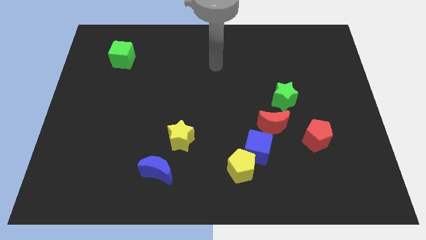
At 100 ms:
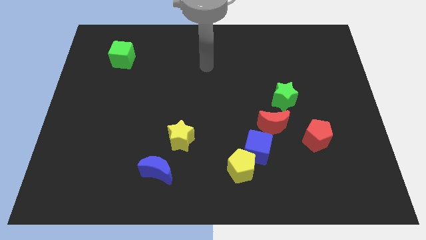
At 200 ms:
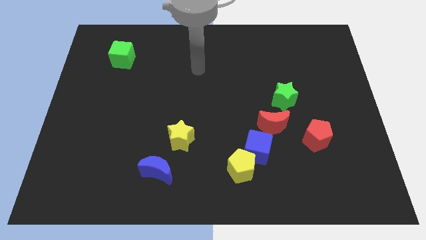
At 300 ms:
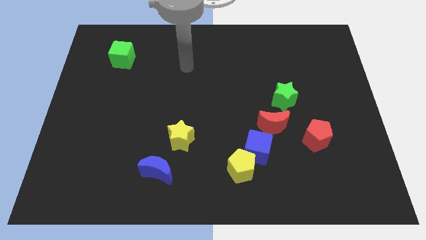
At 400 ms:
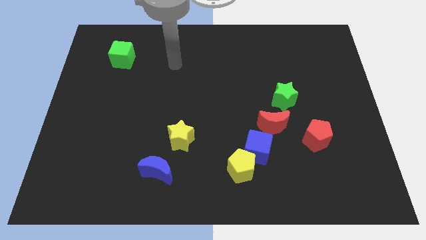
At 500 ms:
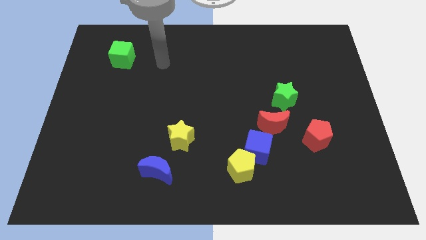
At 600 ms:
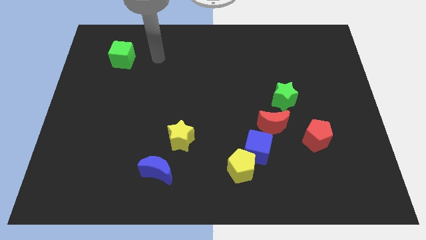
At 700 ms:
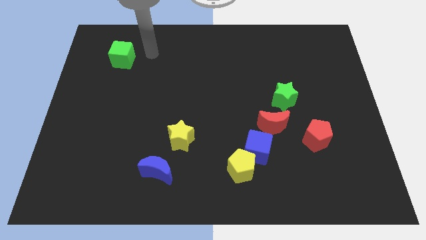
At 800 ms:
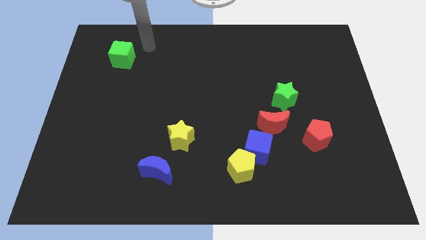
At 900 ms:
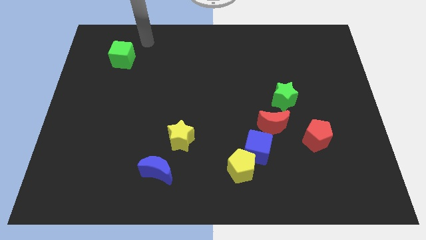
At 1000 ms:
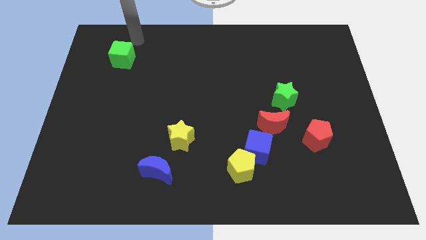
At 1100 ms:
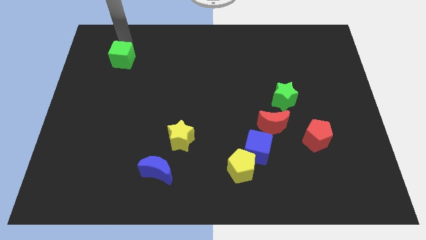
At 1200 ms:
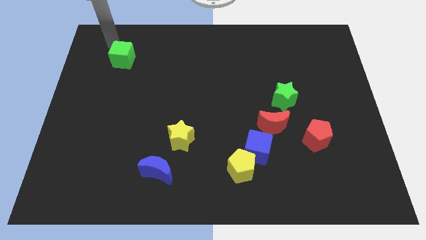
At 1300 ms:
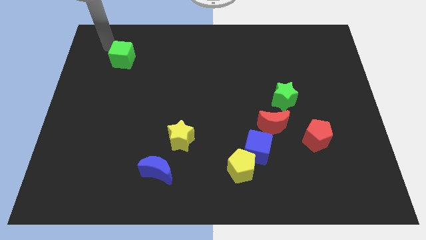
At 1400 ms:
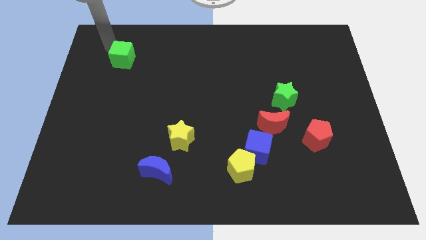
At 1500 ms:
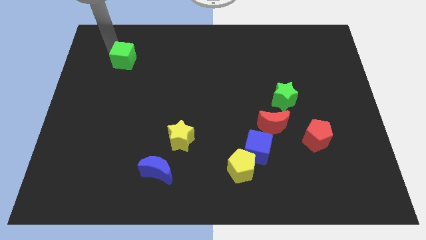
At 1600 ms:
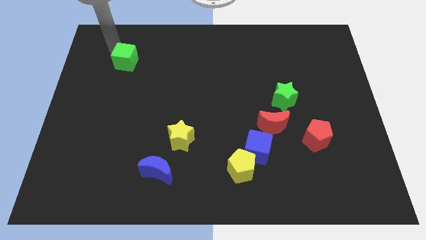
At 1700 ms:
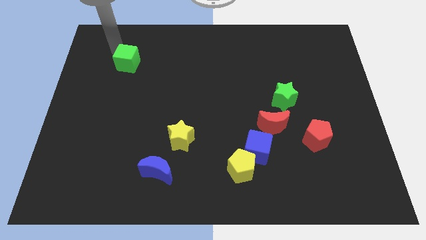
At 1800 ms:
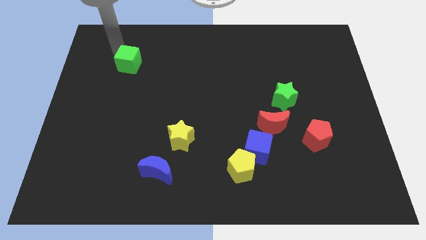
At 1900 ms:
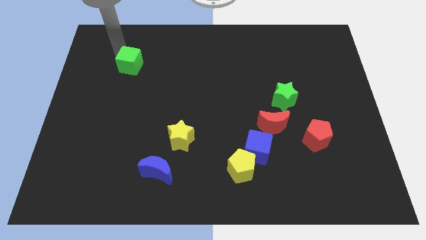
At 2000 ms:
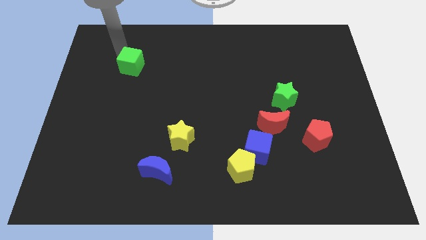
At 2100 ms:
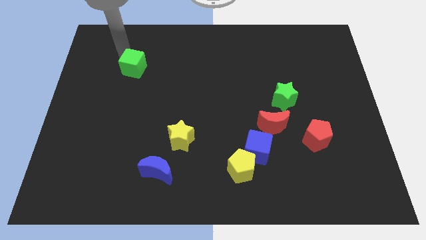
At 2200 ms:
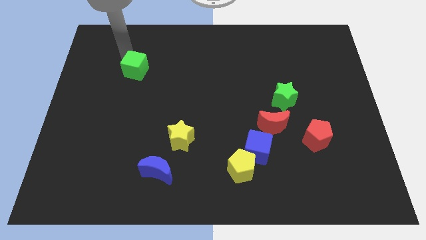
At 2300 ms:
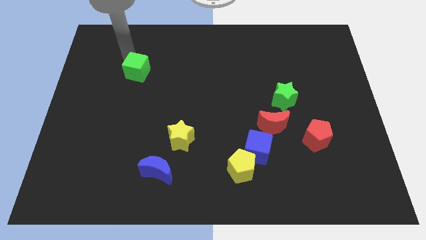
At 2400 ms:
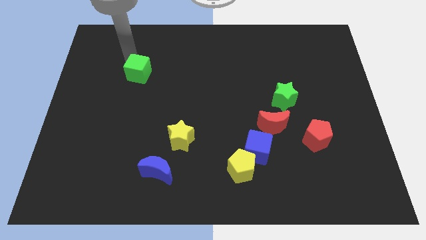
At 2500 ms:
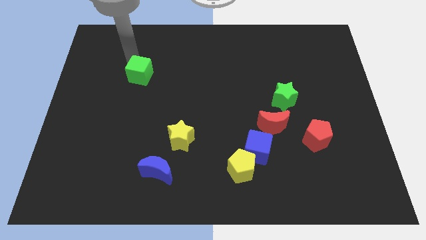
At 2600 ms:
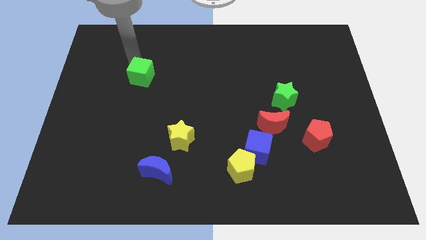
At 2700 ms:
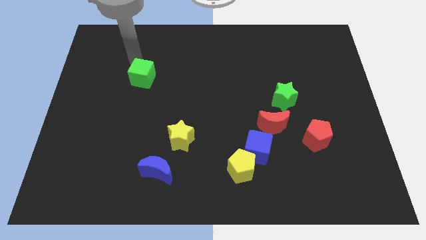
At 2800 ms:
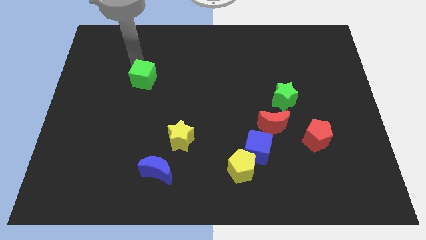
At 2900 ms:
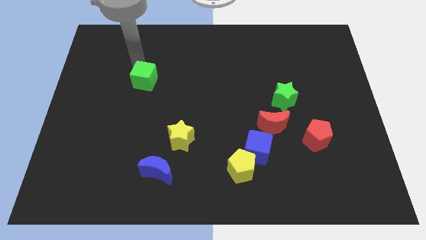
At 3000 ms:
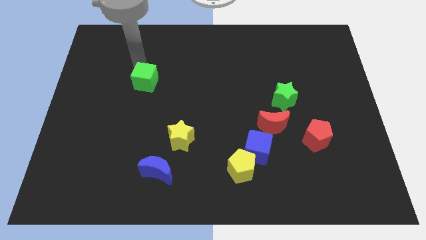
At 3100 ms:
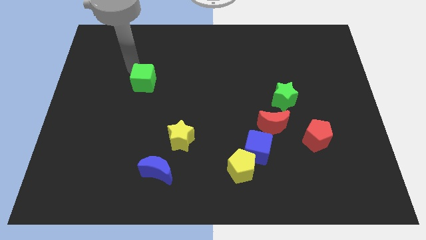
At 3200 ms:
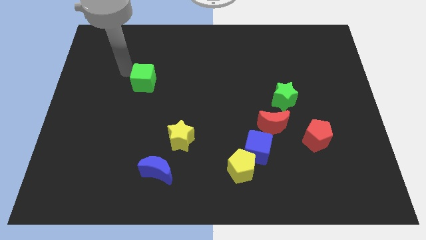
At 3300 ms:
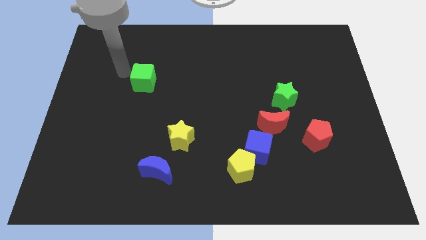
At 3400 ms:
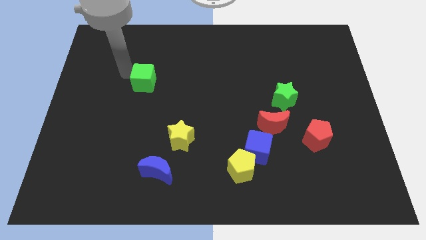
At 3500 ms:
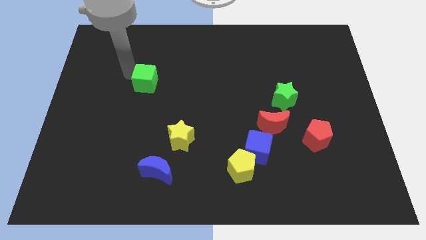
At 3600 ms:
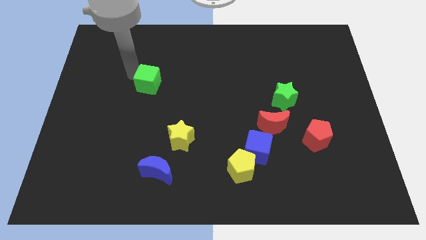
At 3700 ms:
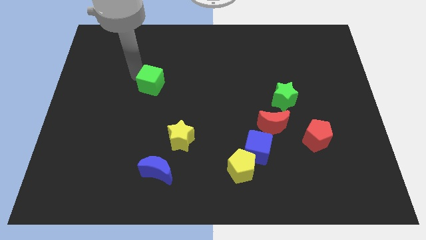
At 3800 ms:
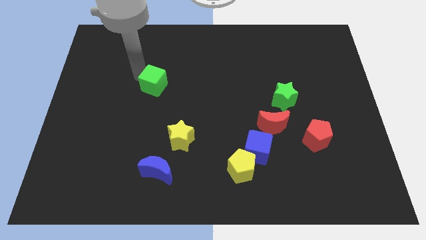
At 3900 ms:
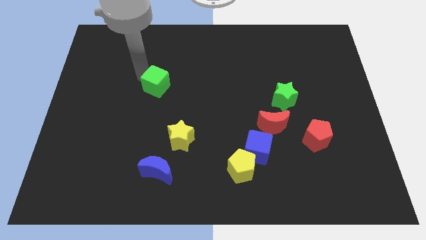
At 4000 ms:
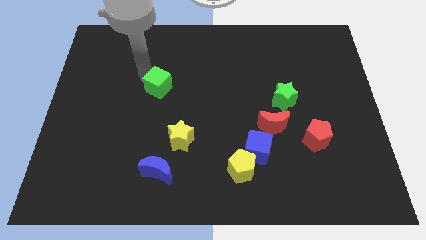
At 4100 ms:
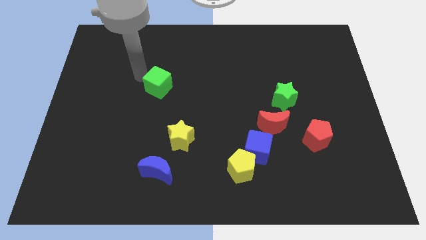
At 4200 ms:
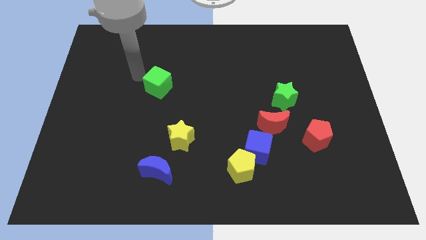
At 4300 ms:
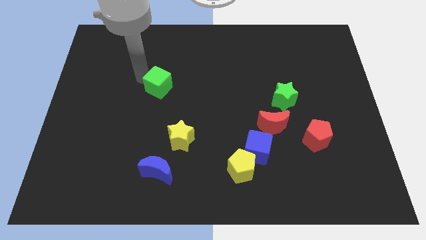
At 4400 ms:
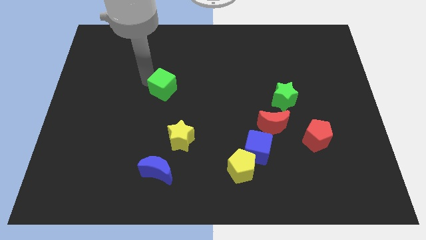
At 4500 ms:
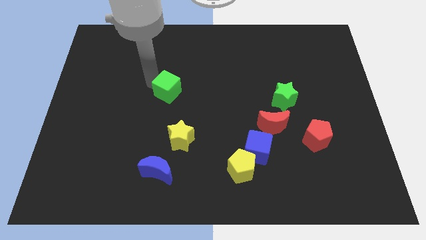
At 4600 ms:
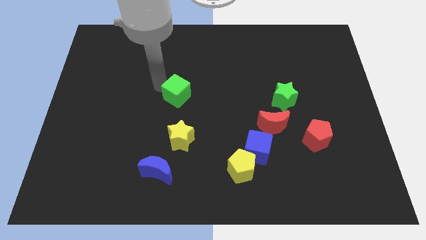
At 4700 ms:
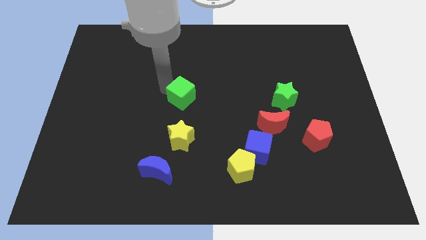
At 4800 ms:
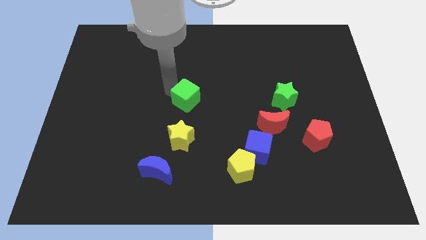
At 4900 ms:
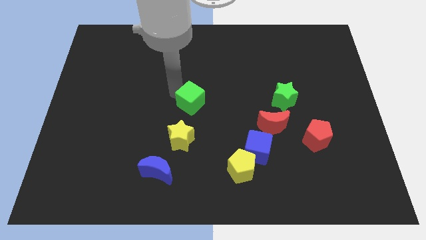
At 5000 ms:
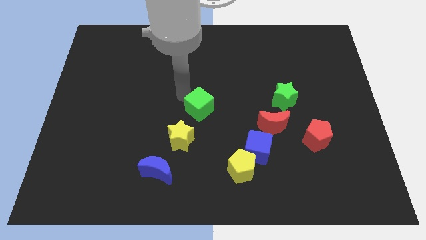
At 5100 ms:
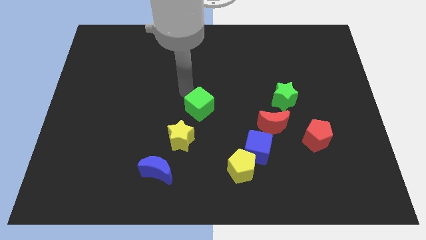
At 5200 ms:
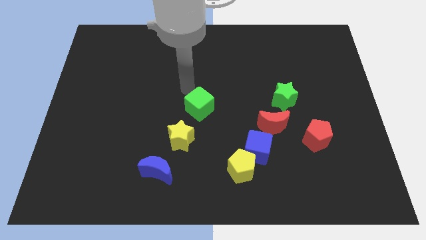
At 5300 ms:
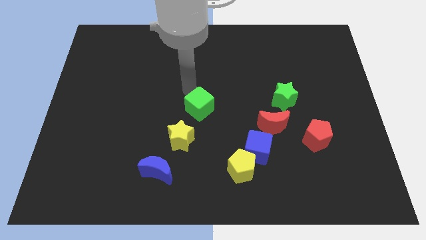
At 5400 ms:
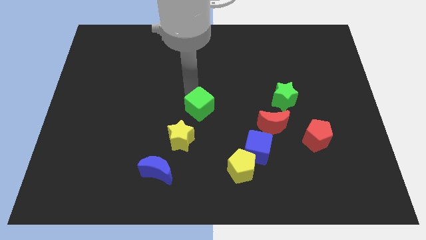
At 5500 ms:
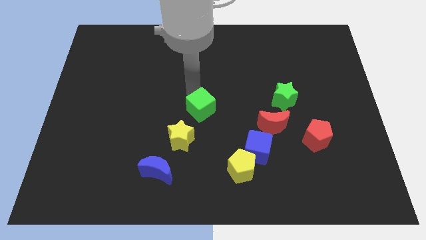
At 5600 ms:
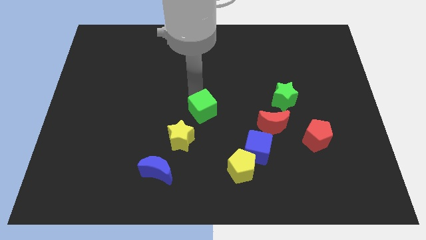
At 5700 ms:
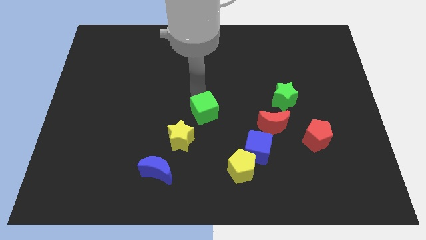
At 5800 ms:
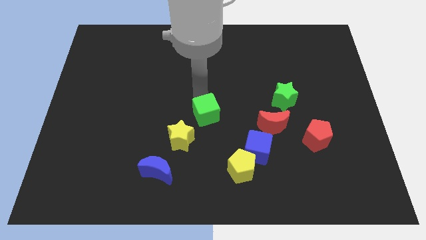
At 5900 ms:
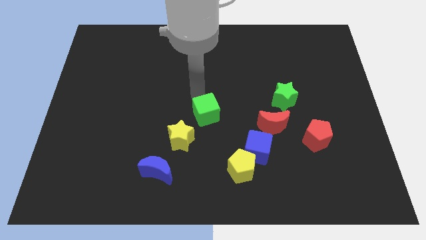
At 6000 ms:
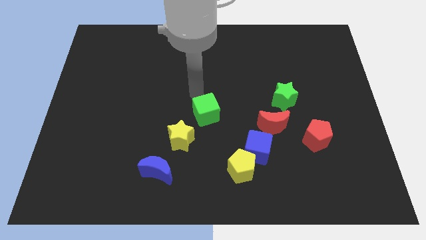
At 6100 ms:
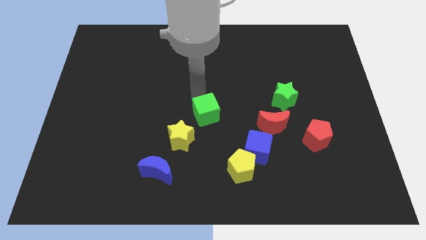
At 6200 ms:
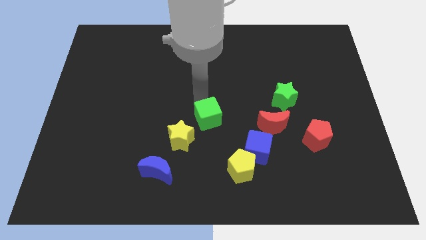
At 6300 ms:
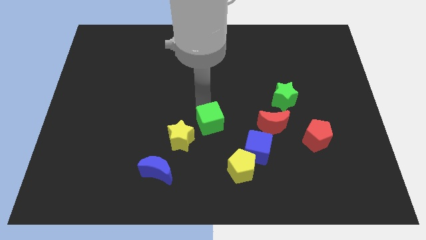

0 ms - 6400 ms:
push the green cube right of the yellow star

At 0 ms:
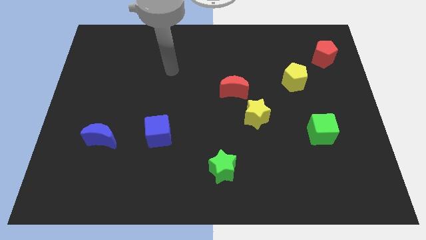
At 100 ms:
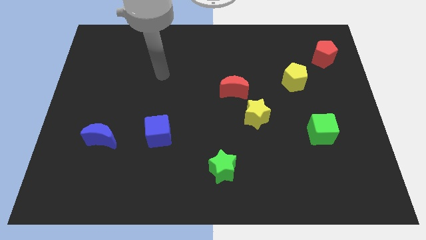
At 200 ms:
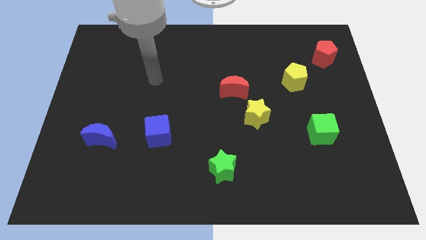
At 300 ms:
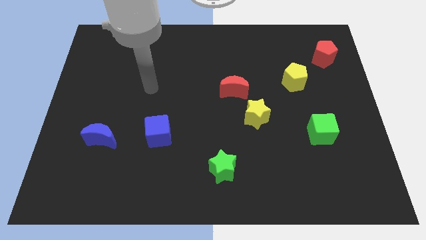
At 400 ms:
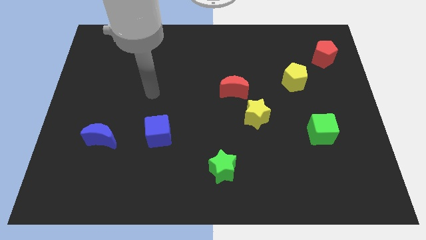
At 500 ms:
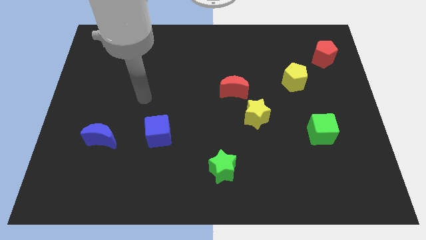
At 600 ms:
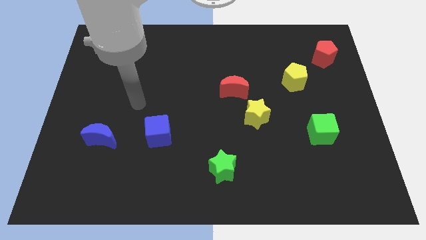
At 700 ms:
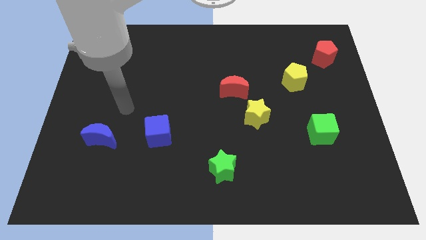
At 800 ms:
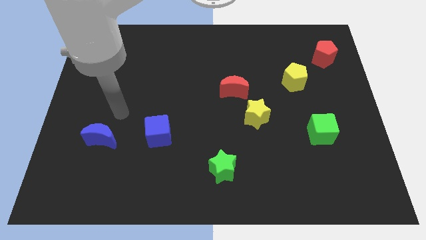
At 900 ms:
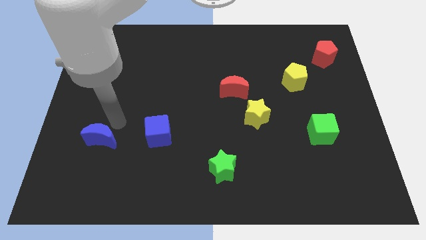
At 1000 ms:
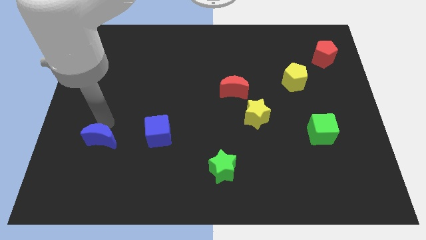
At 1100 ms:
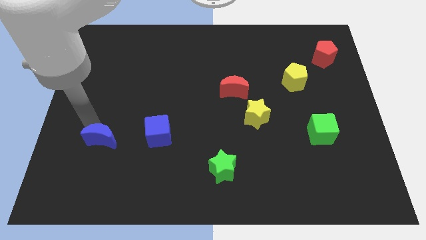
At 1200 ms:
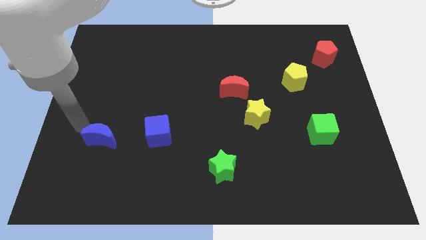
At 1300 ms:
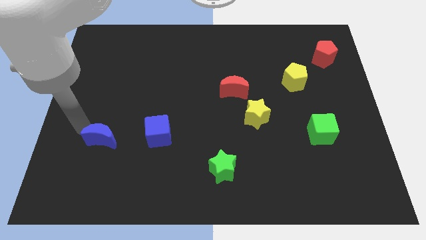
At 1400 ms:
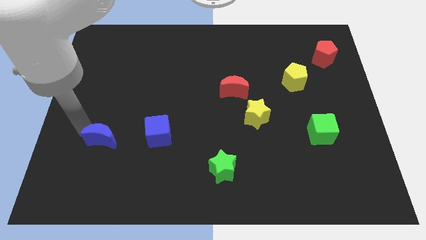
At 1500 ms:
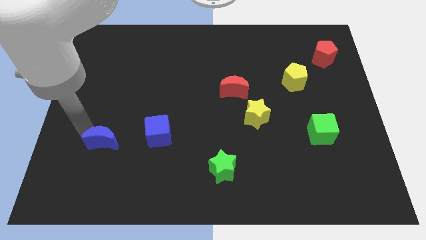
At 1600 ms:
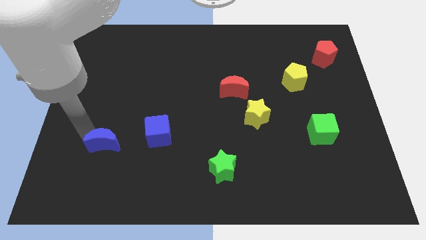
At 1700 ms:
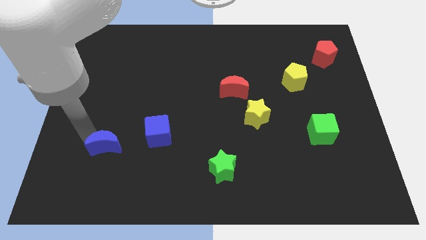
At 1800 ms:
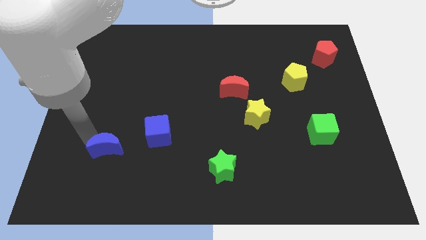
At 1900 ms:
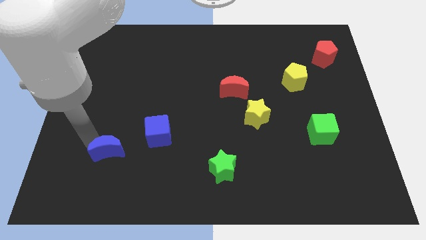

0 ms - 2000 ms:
push the blue moon to the bottom left side of the blue cube

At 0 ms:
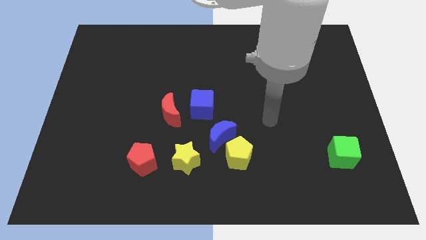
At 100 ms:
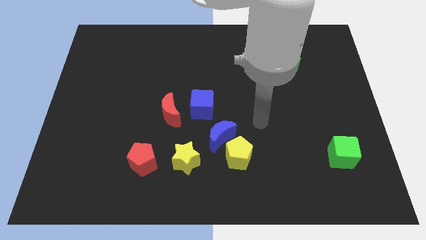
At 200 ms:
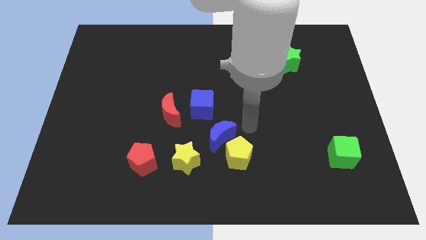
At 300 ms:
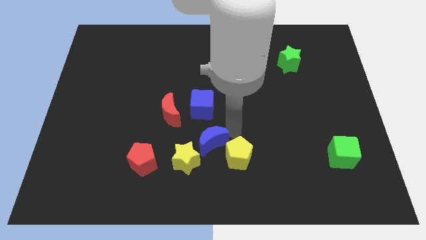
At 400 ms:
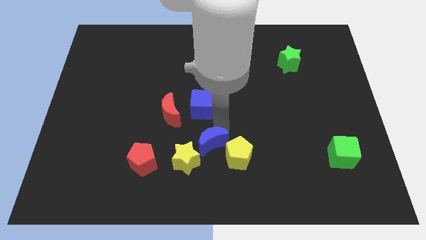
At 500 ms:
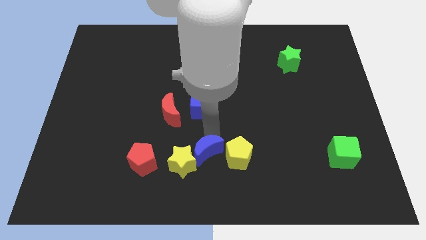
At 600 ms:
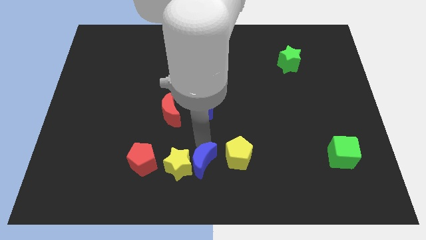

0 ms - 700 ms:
push the yellow star diagonally down and to the right of the red pentagon
